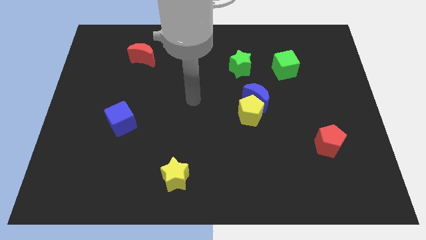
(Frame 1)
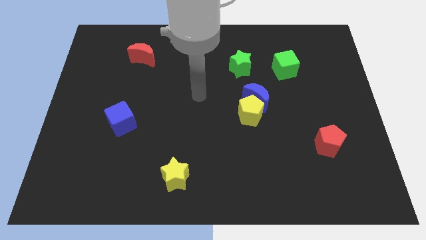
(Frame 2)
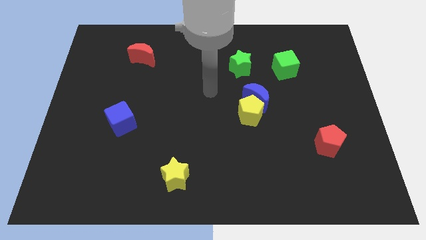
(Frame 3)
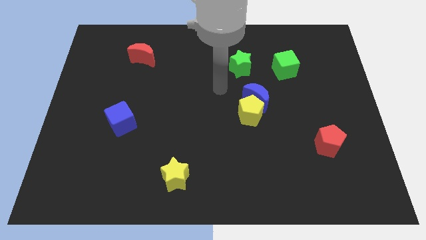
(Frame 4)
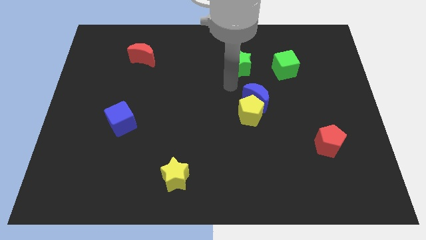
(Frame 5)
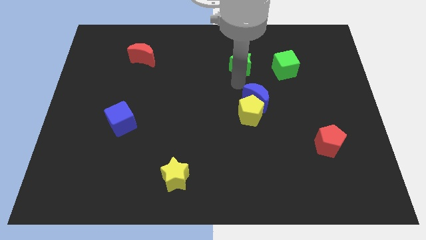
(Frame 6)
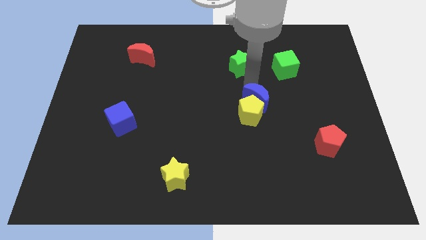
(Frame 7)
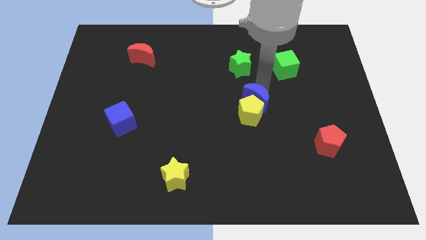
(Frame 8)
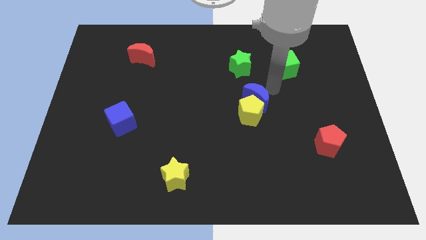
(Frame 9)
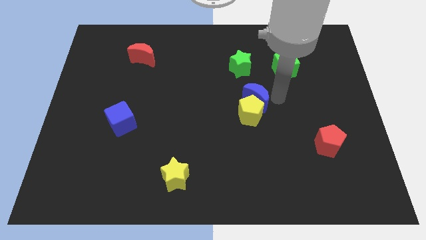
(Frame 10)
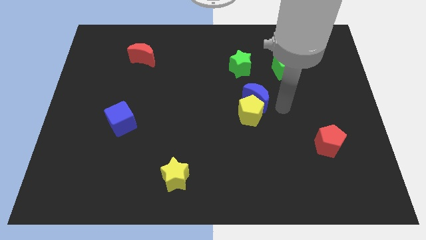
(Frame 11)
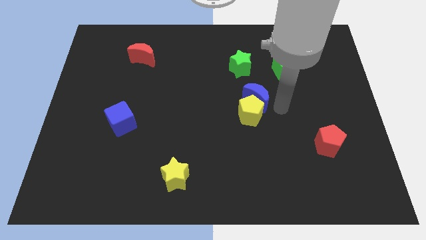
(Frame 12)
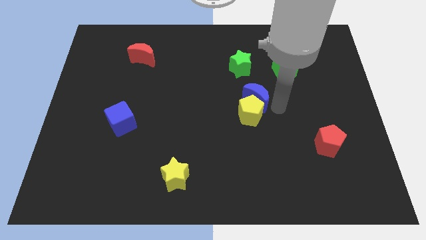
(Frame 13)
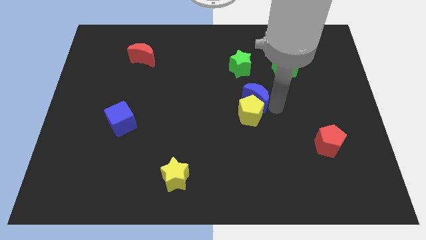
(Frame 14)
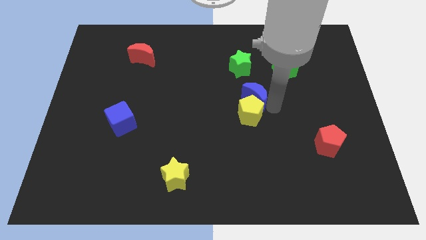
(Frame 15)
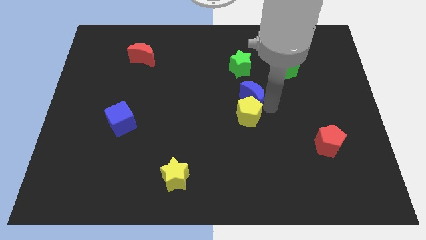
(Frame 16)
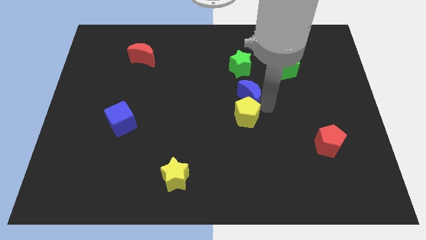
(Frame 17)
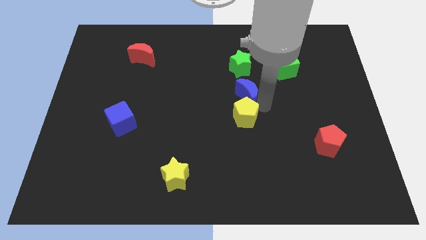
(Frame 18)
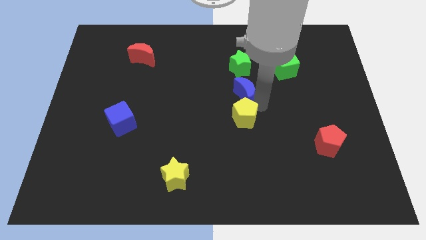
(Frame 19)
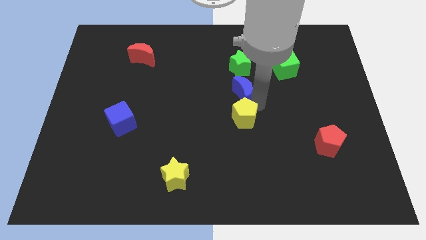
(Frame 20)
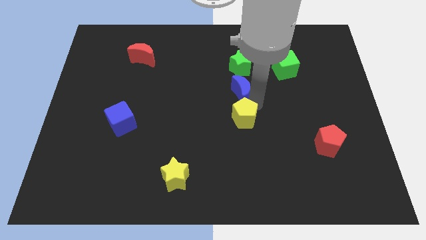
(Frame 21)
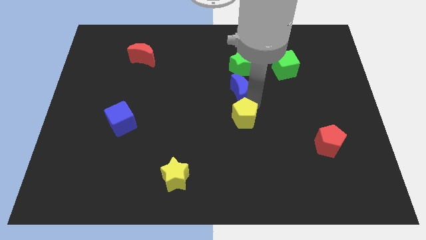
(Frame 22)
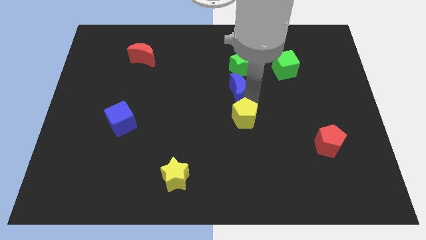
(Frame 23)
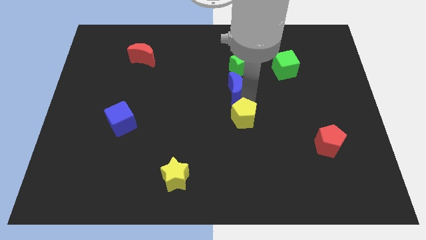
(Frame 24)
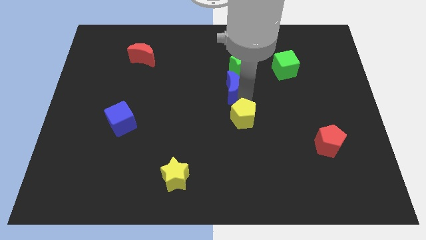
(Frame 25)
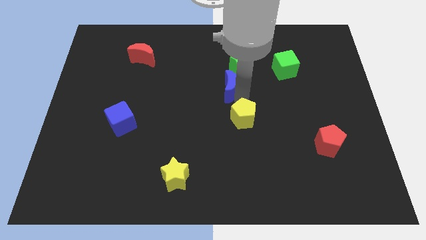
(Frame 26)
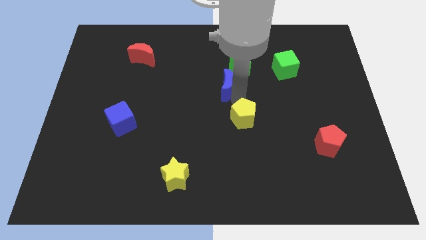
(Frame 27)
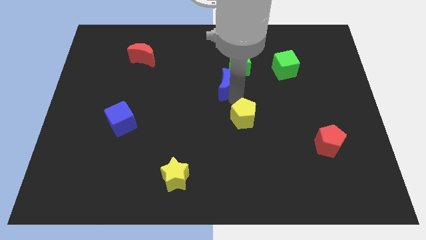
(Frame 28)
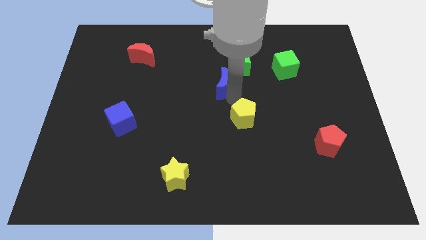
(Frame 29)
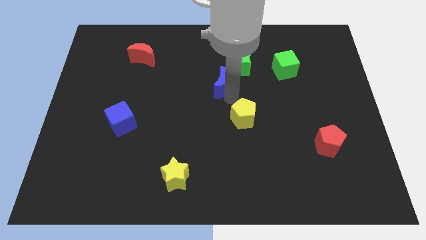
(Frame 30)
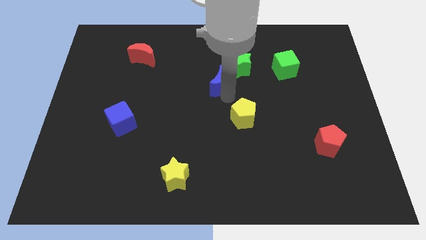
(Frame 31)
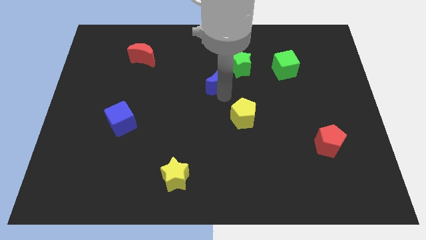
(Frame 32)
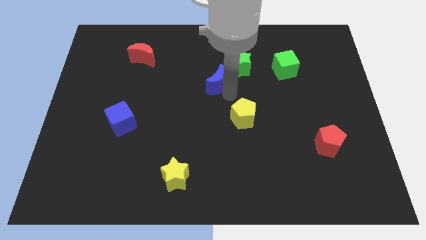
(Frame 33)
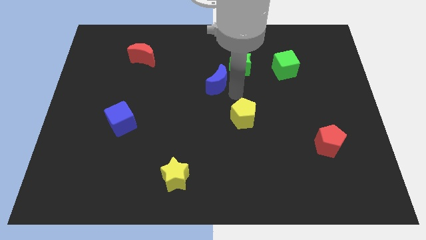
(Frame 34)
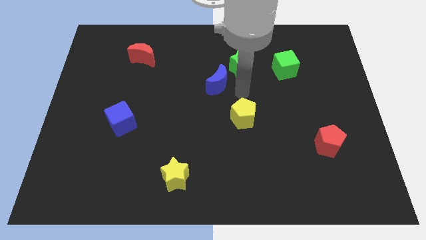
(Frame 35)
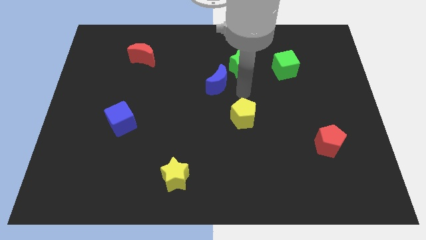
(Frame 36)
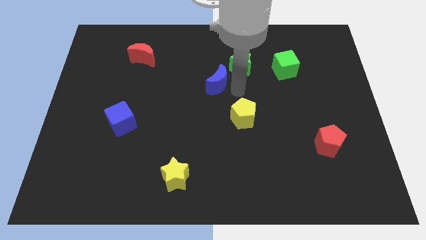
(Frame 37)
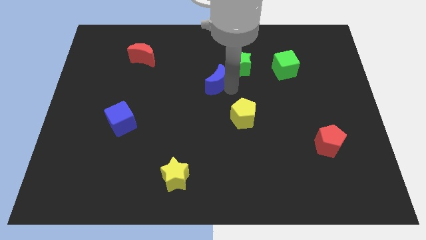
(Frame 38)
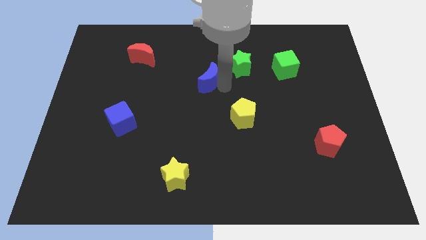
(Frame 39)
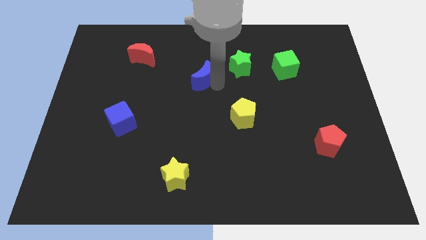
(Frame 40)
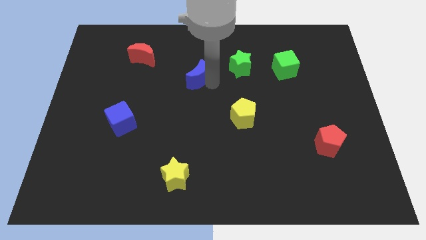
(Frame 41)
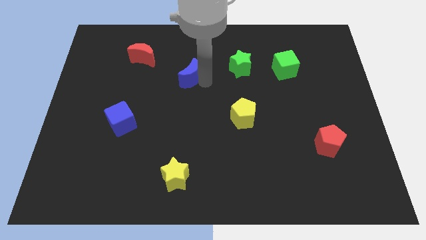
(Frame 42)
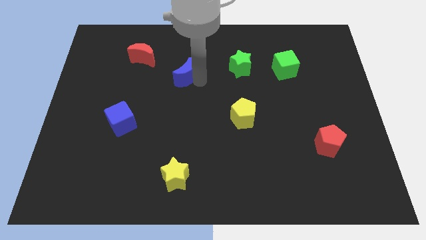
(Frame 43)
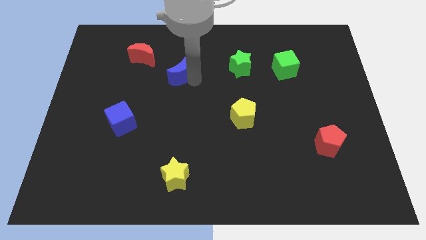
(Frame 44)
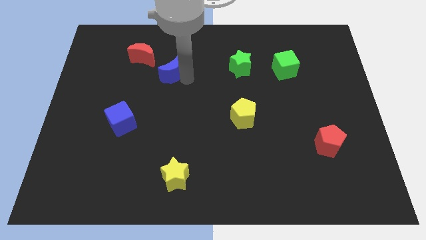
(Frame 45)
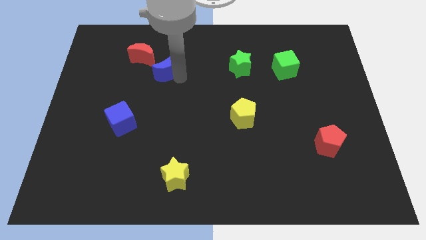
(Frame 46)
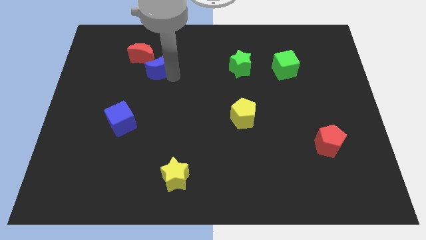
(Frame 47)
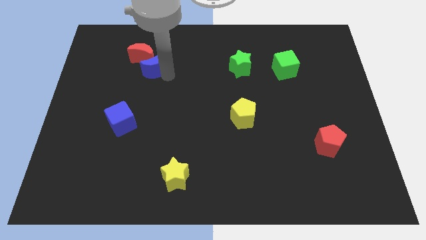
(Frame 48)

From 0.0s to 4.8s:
put the blue moon next to the red moon

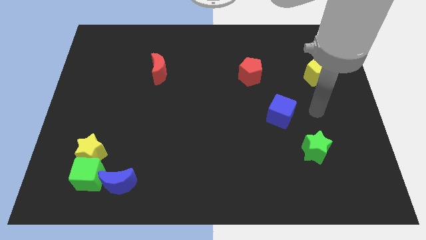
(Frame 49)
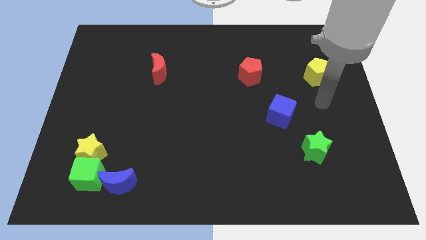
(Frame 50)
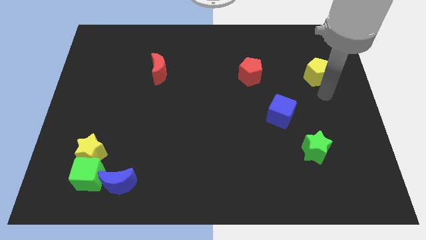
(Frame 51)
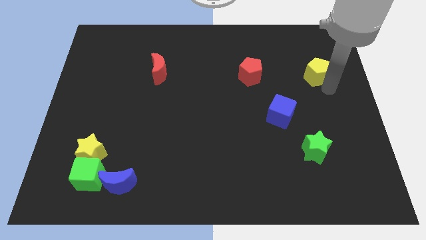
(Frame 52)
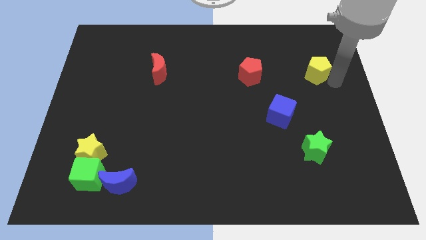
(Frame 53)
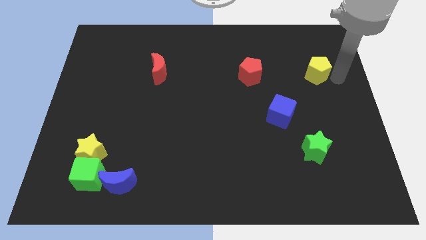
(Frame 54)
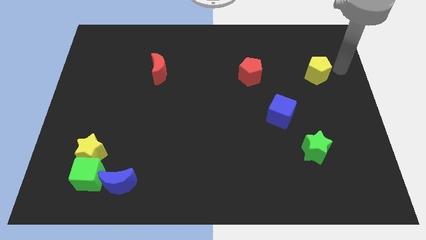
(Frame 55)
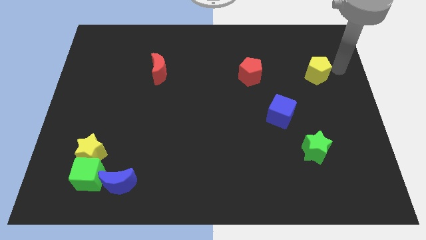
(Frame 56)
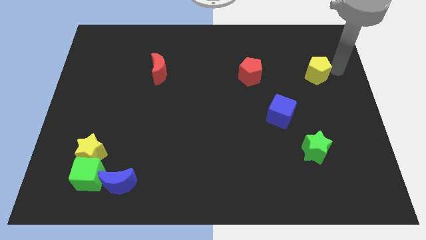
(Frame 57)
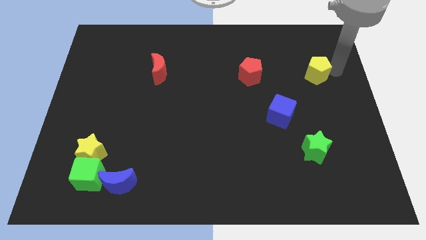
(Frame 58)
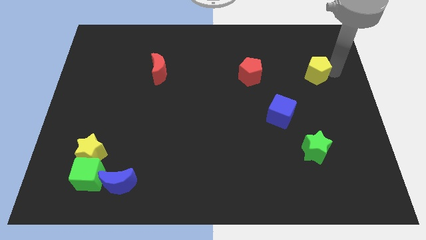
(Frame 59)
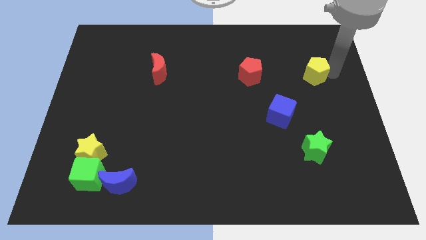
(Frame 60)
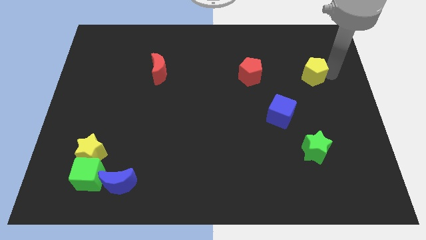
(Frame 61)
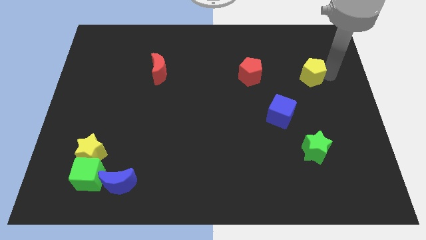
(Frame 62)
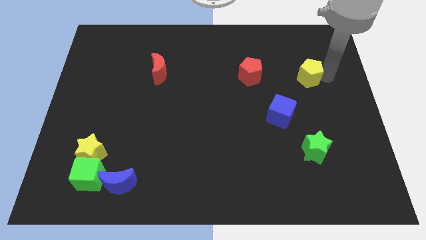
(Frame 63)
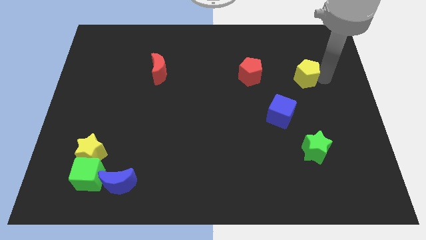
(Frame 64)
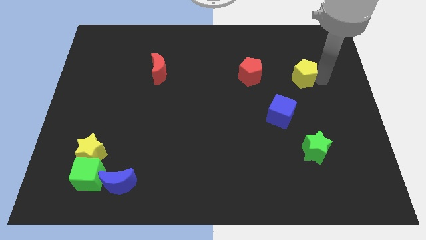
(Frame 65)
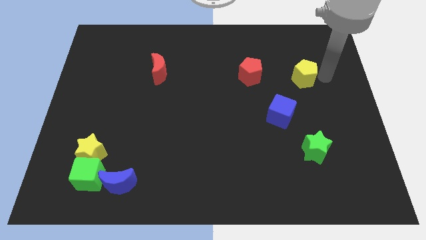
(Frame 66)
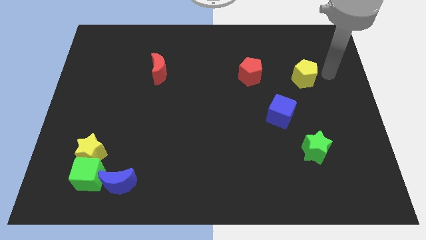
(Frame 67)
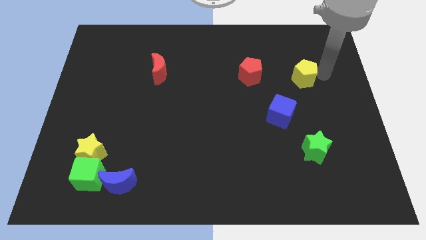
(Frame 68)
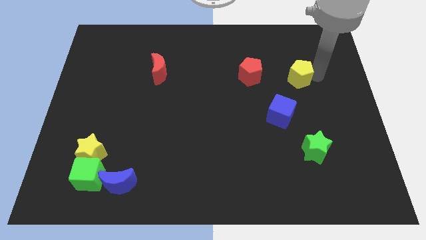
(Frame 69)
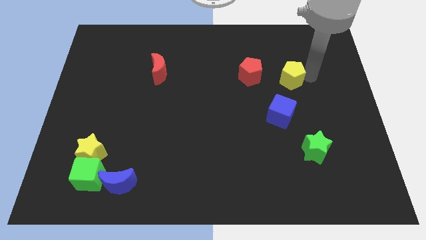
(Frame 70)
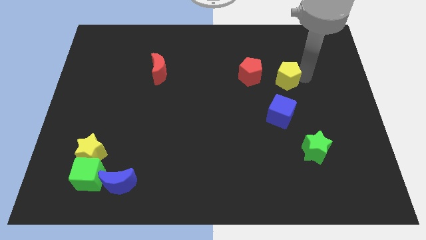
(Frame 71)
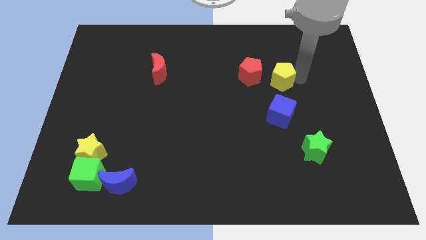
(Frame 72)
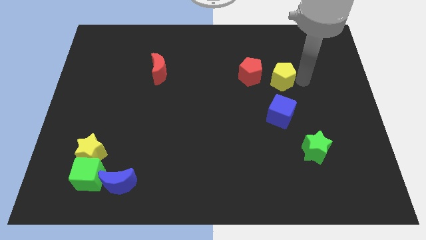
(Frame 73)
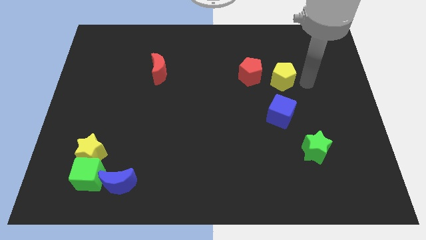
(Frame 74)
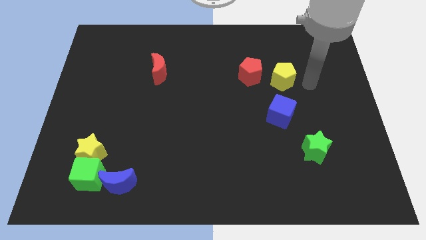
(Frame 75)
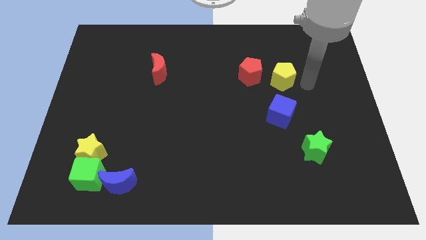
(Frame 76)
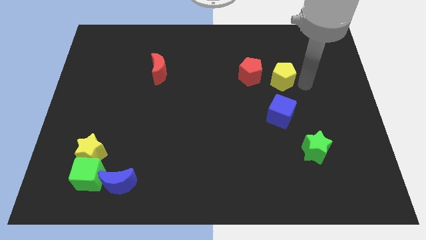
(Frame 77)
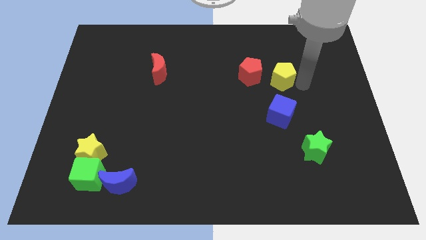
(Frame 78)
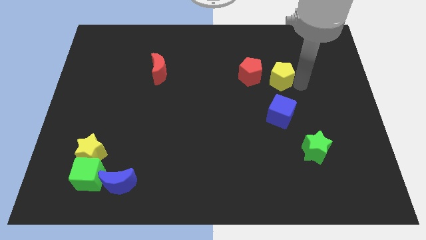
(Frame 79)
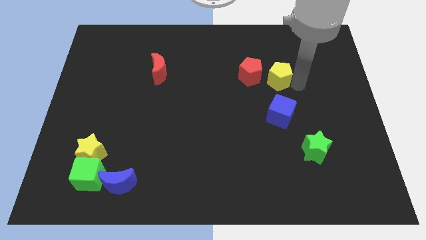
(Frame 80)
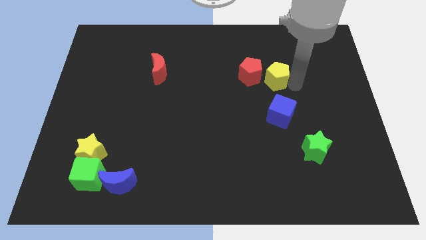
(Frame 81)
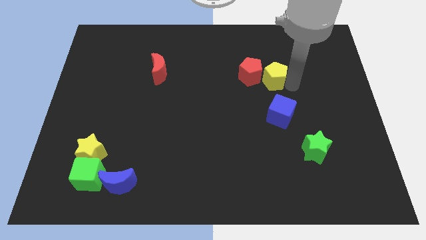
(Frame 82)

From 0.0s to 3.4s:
push the yellow pentagon next to the red pentagon
